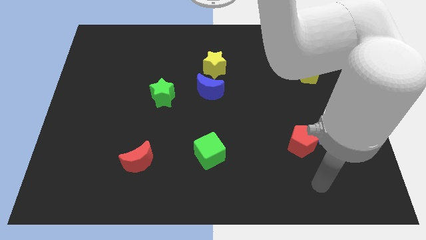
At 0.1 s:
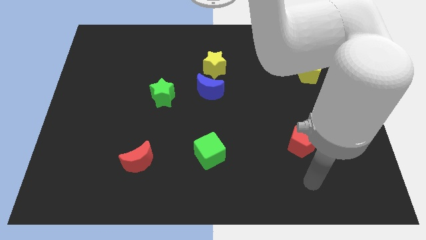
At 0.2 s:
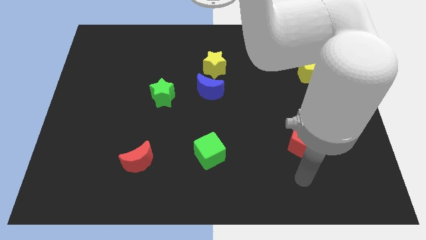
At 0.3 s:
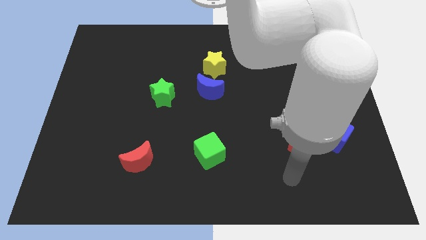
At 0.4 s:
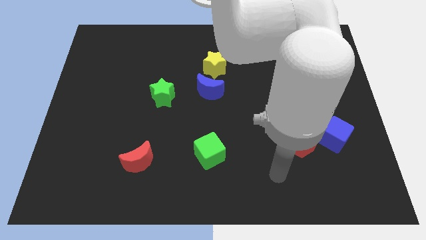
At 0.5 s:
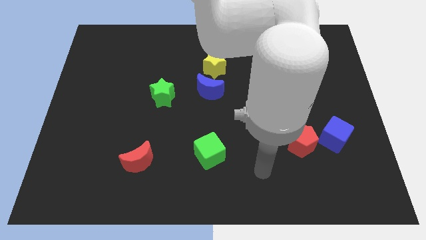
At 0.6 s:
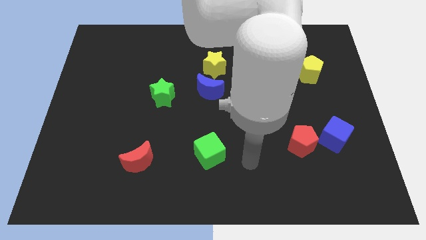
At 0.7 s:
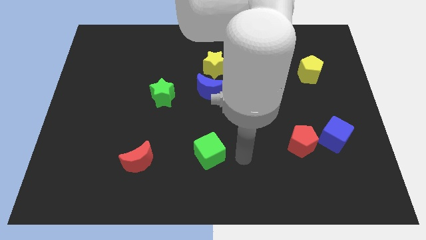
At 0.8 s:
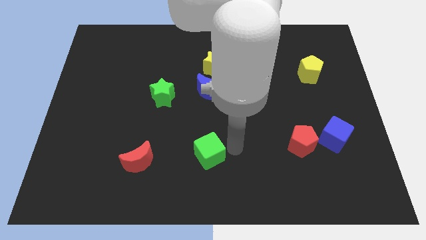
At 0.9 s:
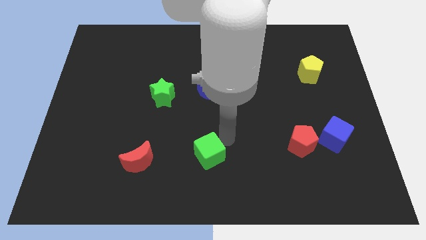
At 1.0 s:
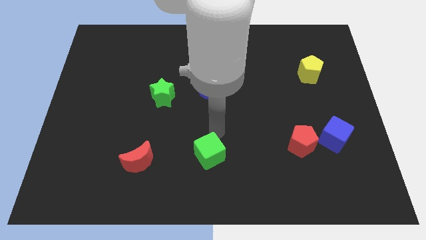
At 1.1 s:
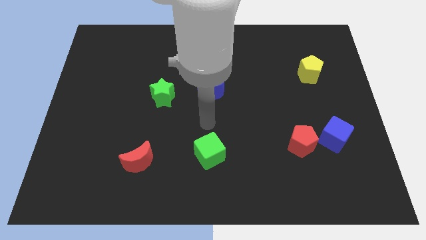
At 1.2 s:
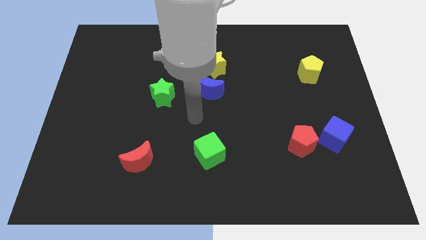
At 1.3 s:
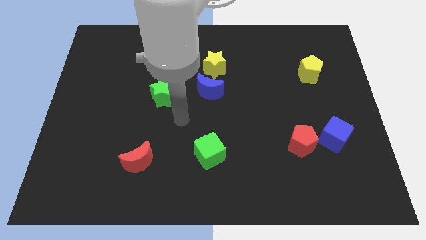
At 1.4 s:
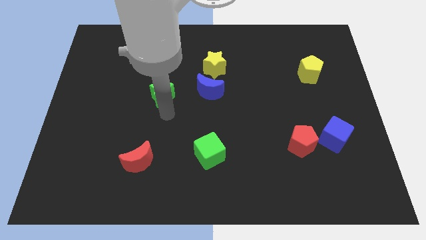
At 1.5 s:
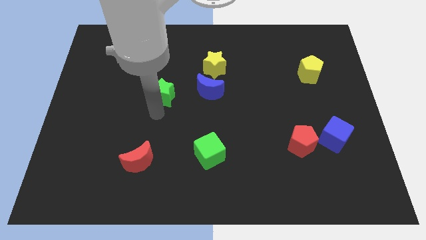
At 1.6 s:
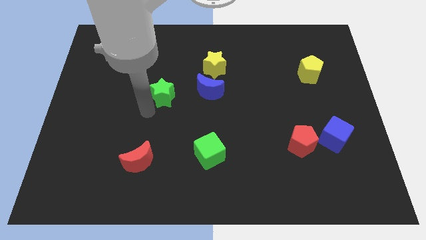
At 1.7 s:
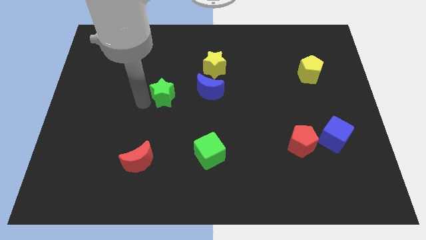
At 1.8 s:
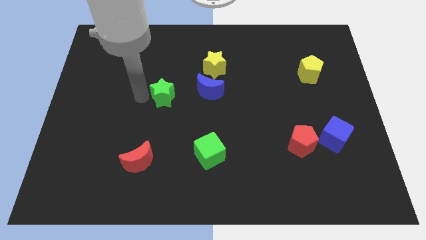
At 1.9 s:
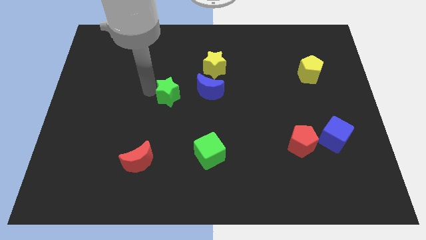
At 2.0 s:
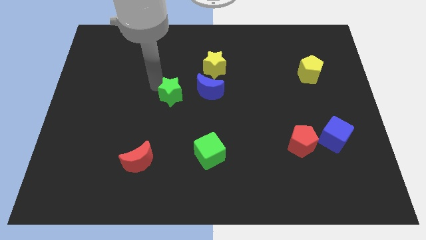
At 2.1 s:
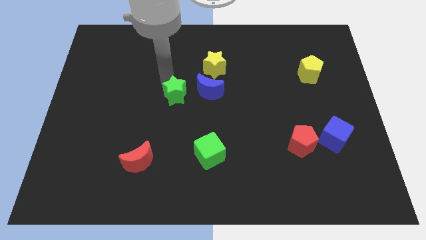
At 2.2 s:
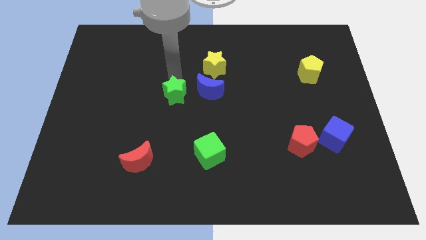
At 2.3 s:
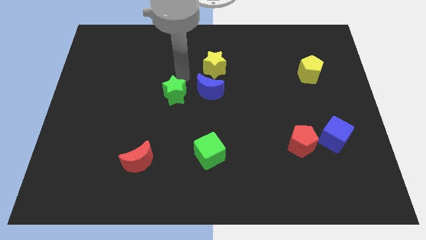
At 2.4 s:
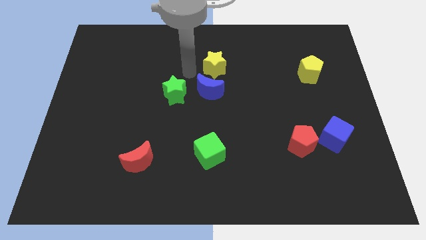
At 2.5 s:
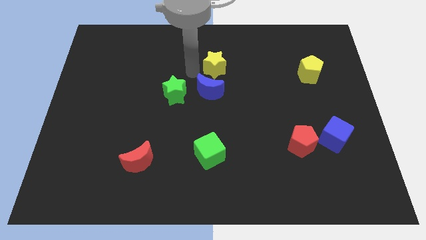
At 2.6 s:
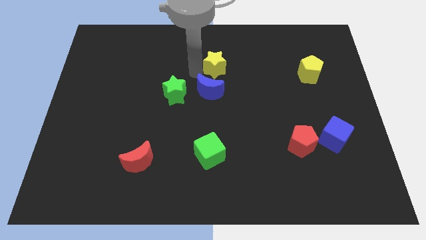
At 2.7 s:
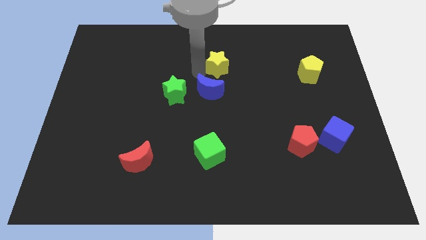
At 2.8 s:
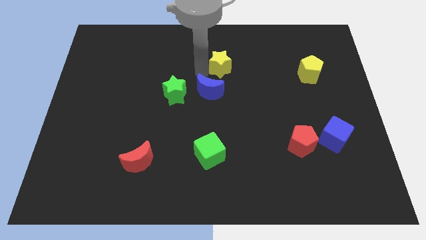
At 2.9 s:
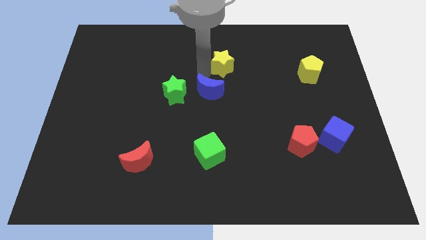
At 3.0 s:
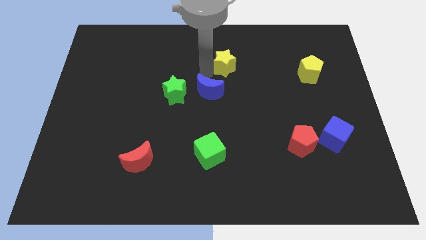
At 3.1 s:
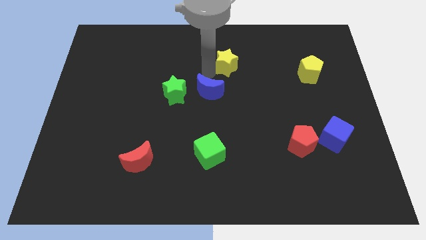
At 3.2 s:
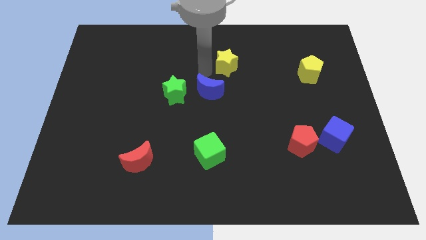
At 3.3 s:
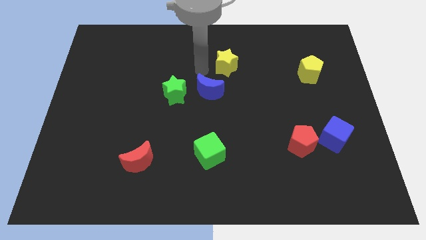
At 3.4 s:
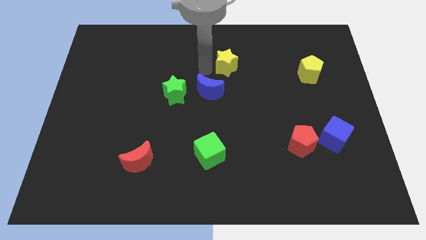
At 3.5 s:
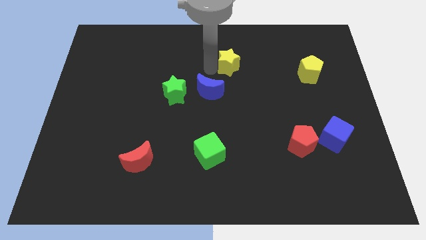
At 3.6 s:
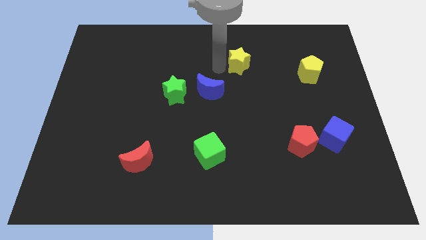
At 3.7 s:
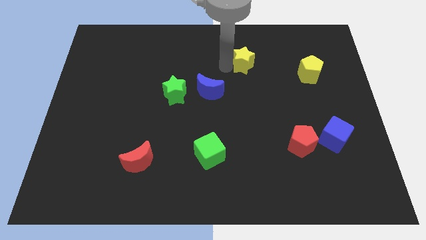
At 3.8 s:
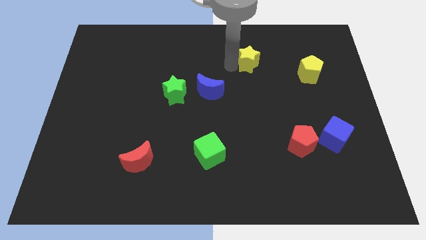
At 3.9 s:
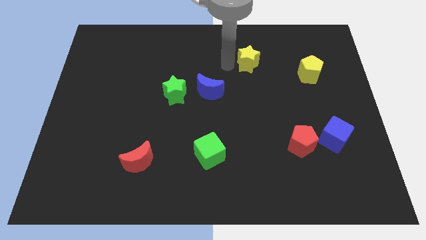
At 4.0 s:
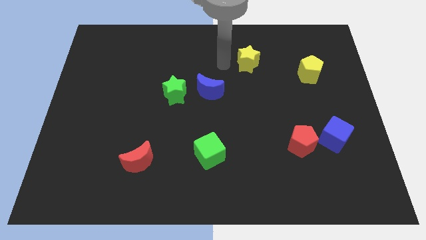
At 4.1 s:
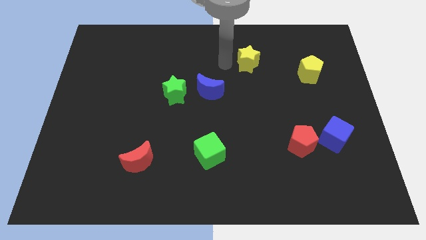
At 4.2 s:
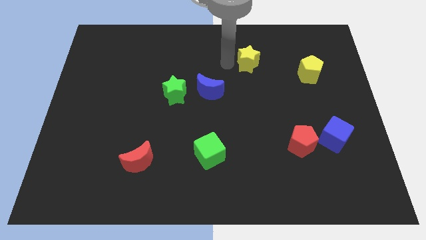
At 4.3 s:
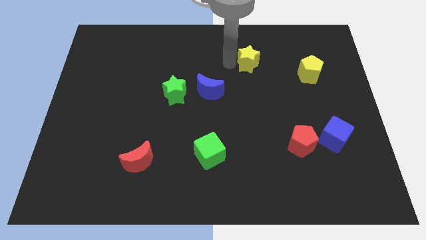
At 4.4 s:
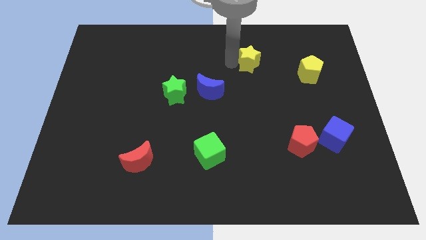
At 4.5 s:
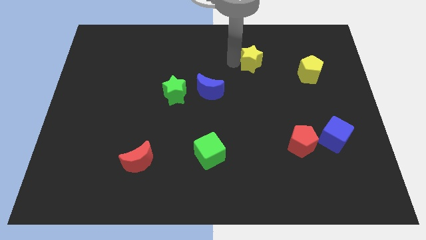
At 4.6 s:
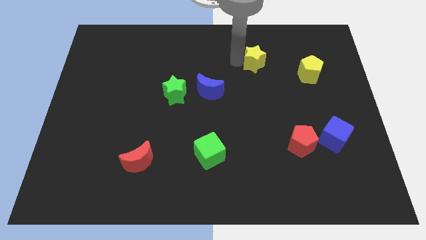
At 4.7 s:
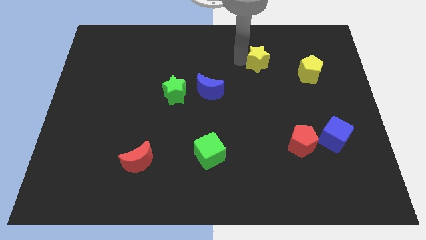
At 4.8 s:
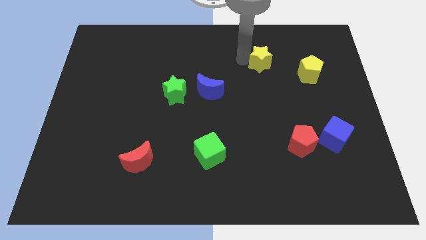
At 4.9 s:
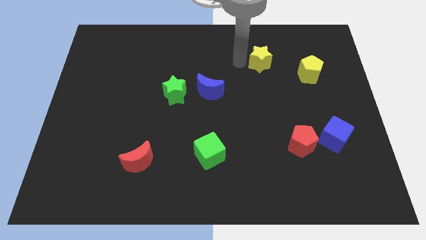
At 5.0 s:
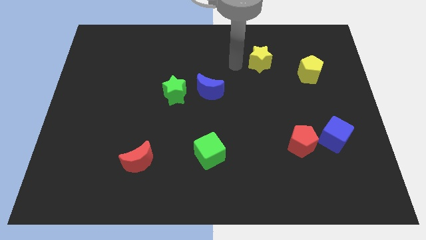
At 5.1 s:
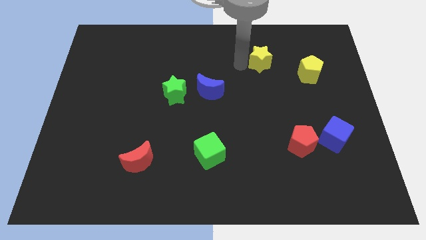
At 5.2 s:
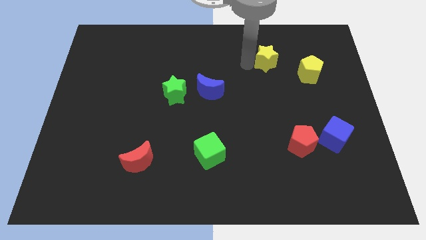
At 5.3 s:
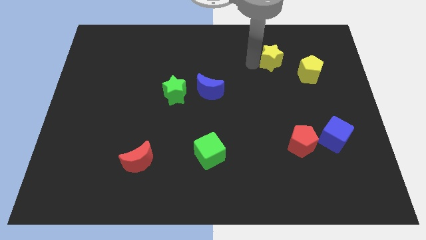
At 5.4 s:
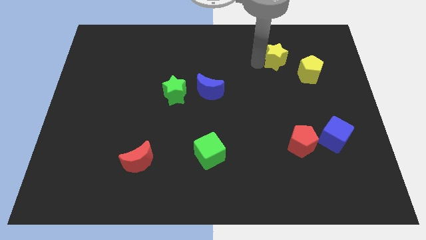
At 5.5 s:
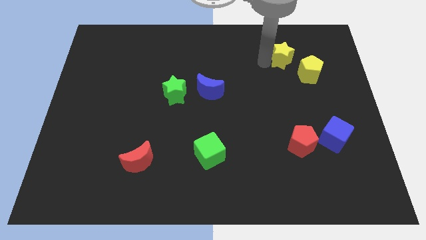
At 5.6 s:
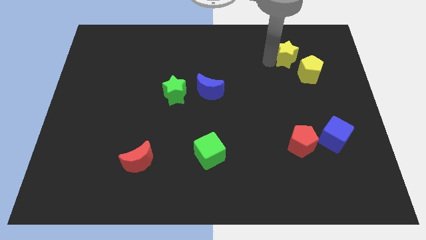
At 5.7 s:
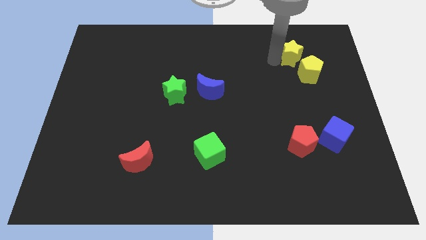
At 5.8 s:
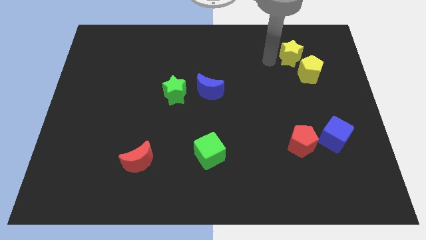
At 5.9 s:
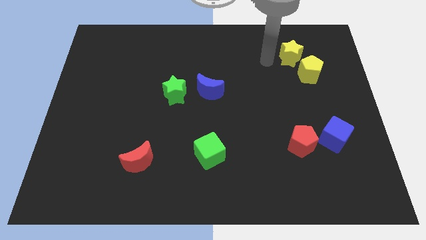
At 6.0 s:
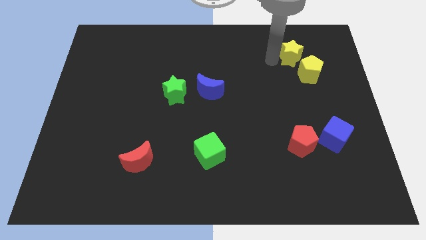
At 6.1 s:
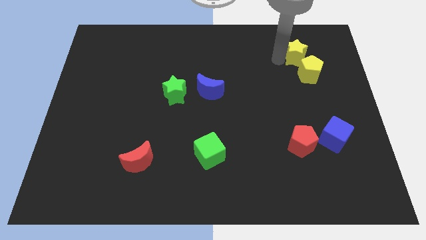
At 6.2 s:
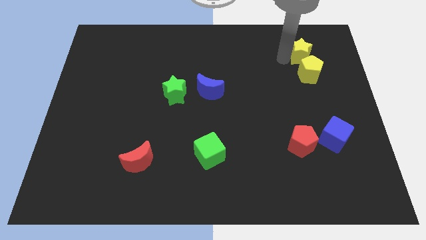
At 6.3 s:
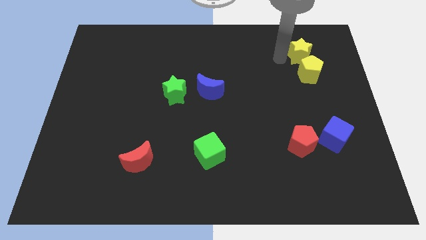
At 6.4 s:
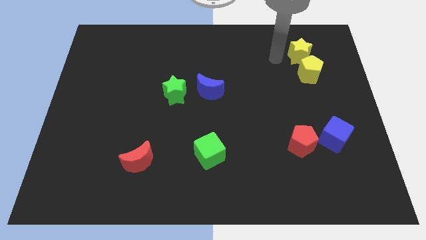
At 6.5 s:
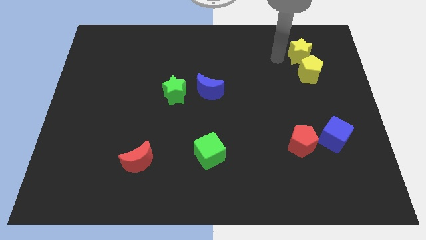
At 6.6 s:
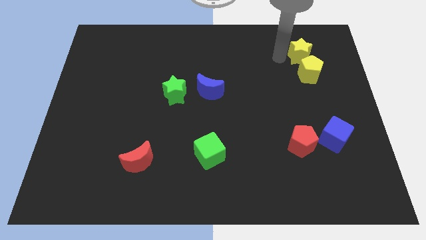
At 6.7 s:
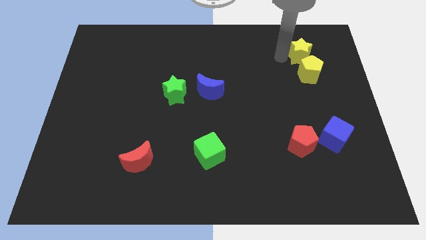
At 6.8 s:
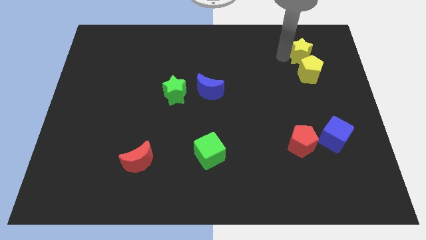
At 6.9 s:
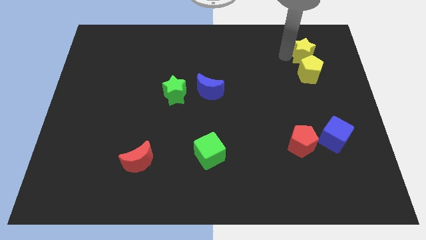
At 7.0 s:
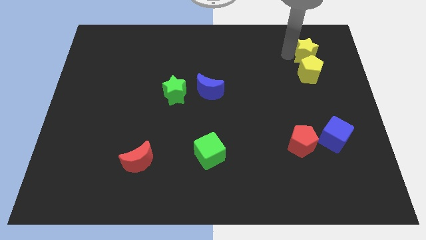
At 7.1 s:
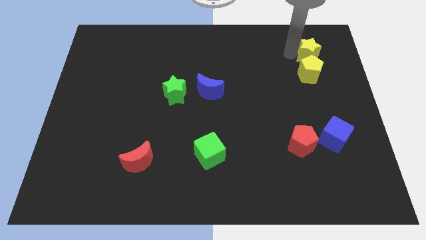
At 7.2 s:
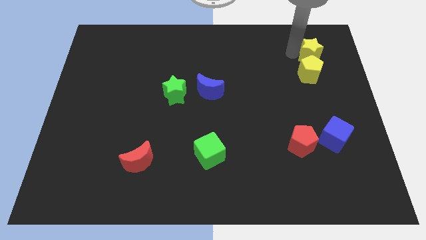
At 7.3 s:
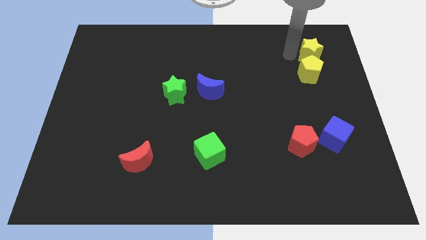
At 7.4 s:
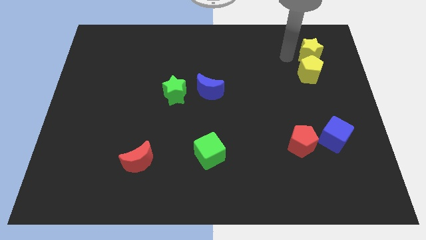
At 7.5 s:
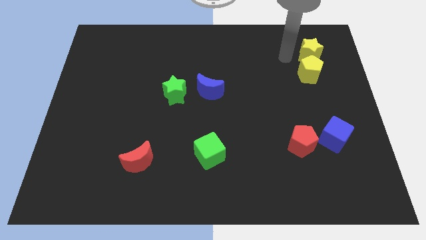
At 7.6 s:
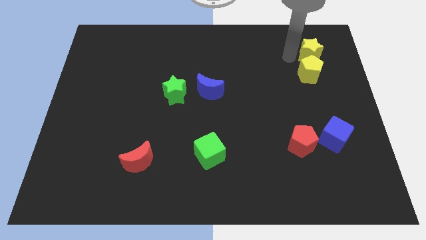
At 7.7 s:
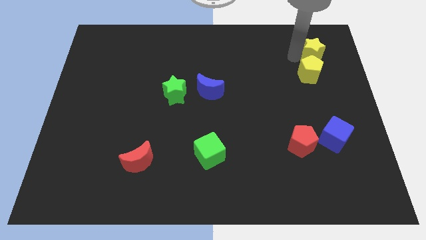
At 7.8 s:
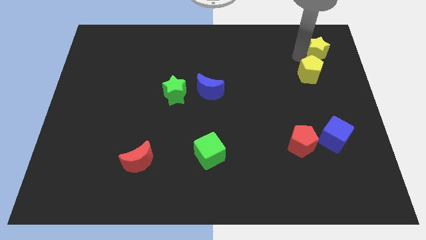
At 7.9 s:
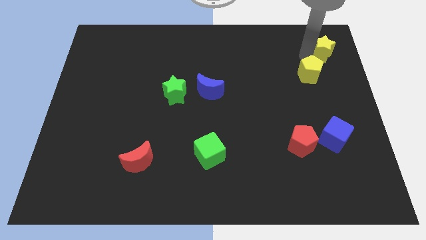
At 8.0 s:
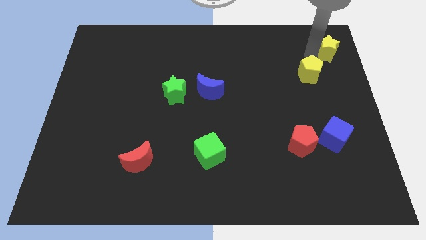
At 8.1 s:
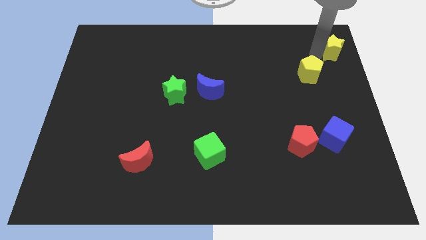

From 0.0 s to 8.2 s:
put the yellow star to the top right corner
